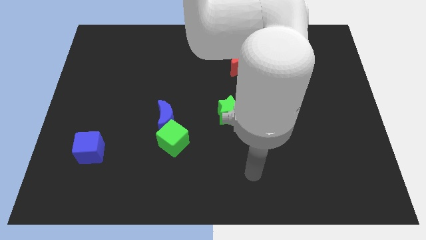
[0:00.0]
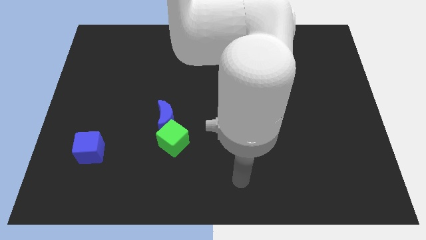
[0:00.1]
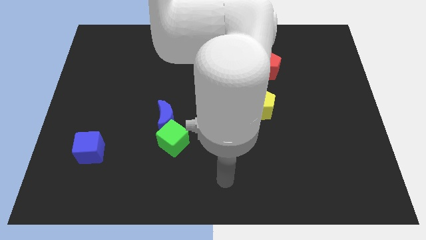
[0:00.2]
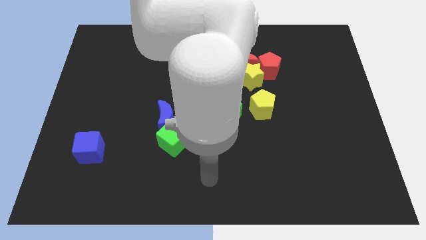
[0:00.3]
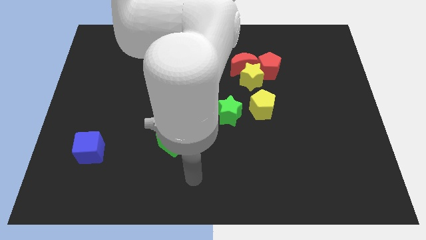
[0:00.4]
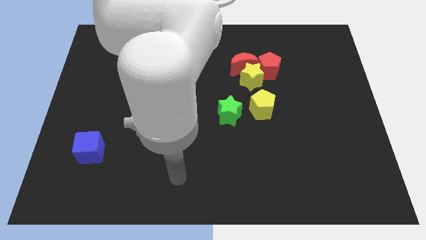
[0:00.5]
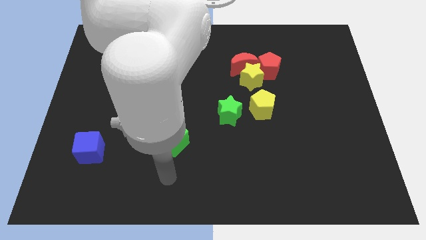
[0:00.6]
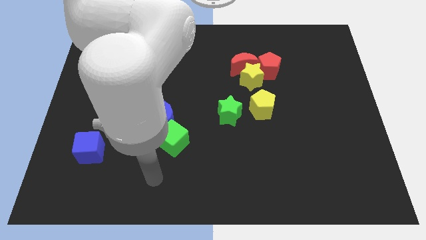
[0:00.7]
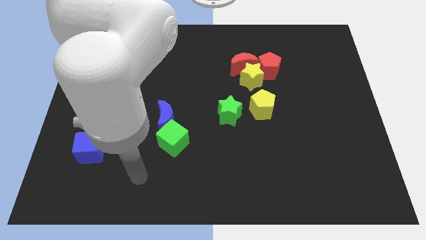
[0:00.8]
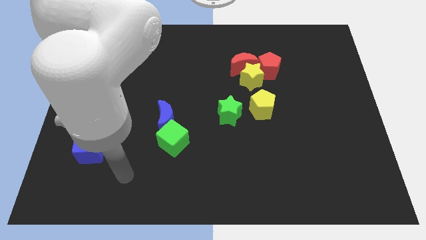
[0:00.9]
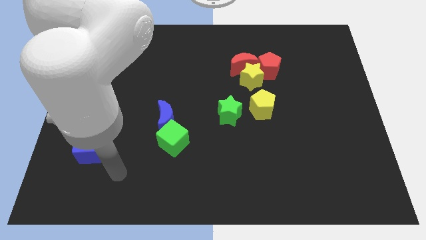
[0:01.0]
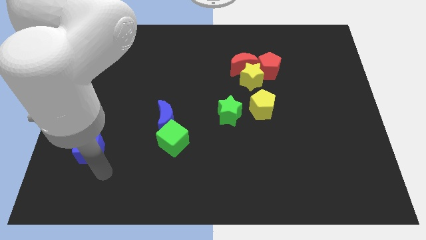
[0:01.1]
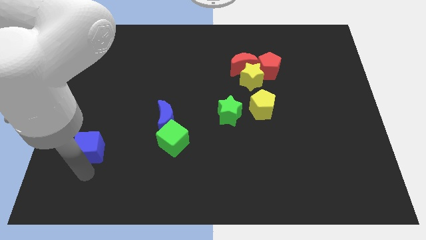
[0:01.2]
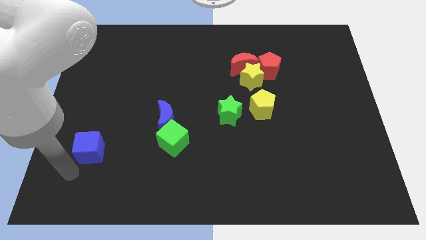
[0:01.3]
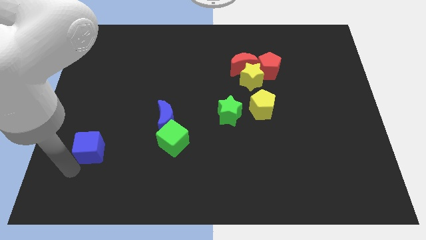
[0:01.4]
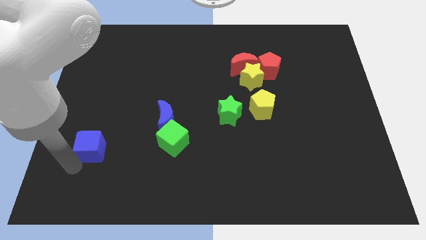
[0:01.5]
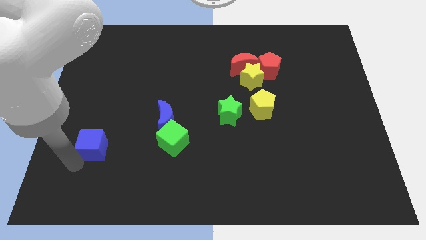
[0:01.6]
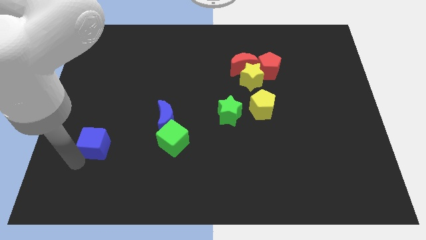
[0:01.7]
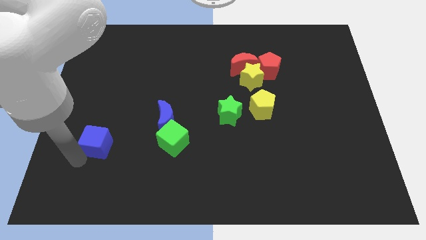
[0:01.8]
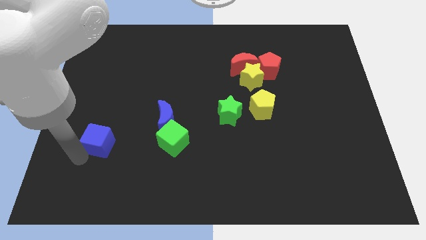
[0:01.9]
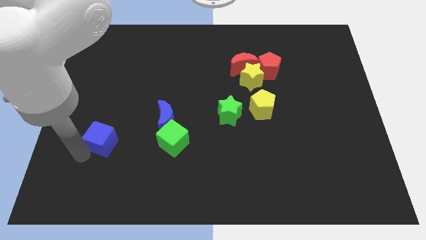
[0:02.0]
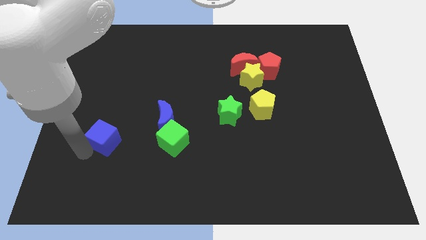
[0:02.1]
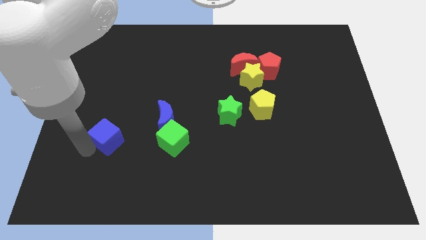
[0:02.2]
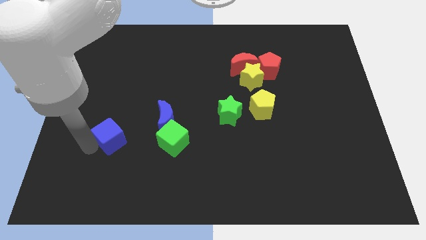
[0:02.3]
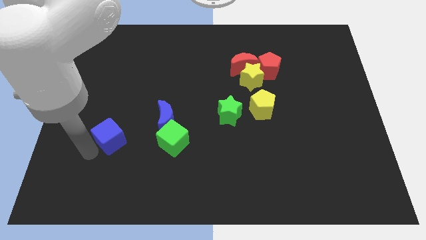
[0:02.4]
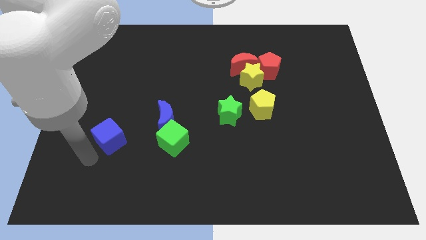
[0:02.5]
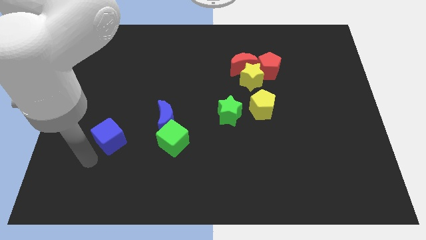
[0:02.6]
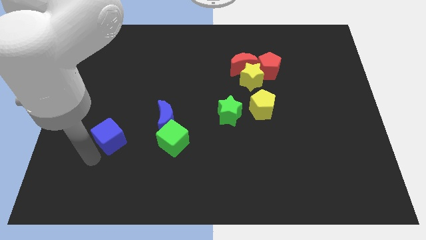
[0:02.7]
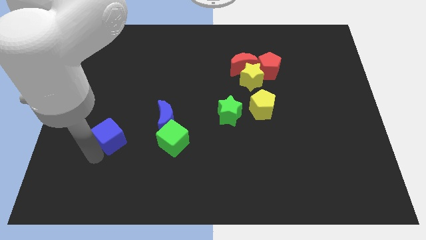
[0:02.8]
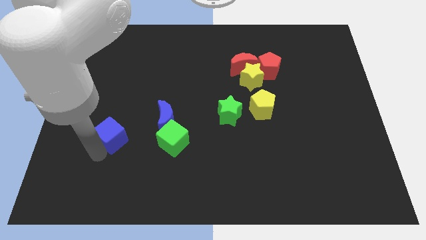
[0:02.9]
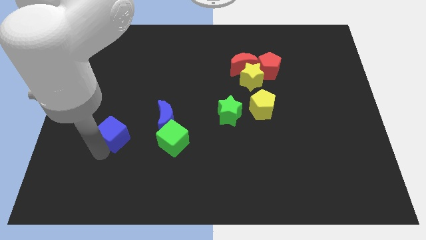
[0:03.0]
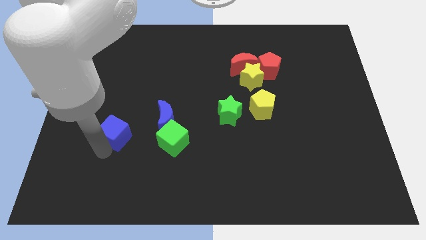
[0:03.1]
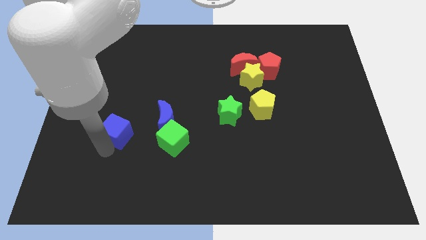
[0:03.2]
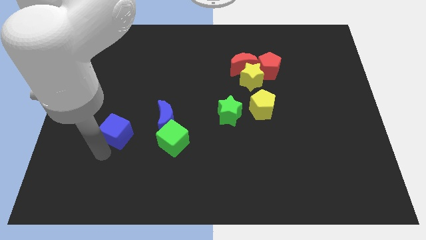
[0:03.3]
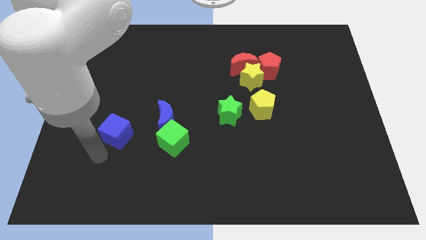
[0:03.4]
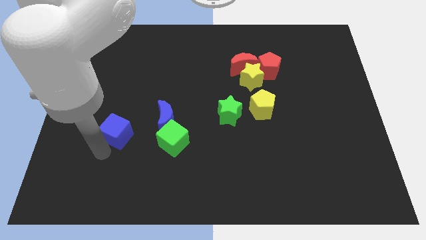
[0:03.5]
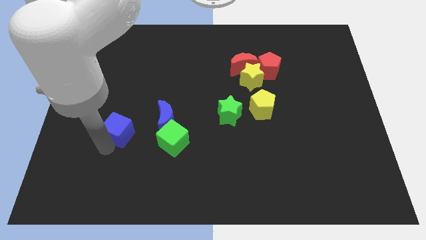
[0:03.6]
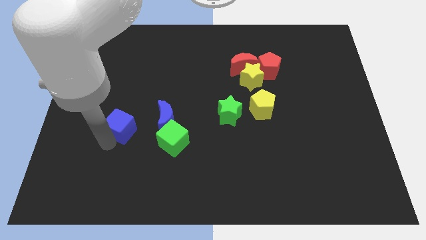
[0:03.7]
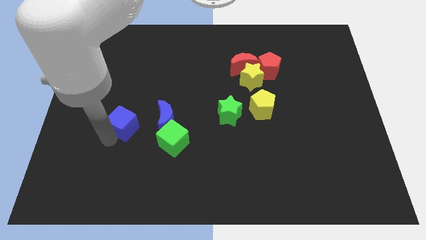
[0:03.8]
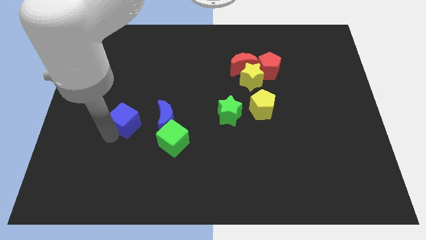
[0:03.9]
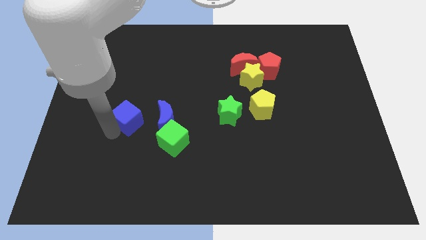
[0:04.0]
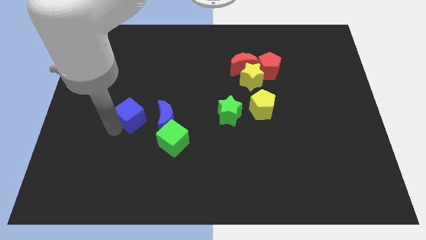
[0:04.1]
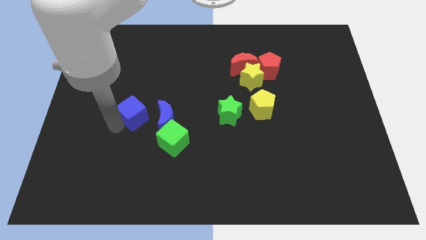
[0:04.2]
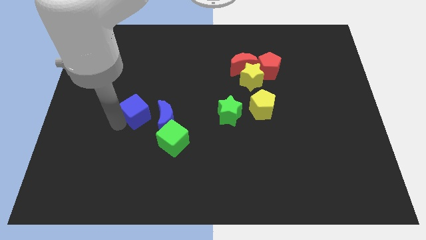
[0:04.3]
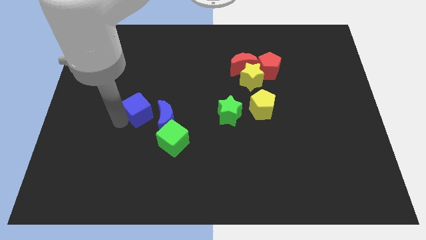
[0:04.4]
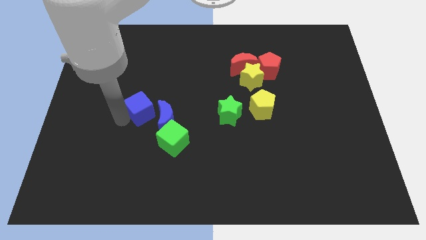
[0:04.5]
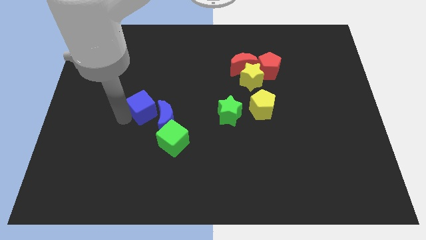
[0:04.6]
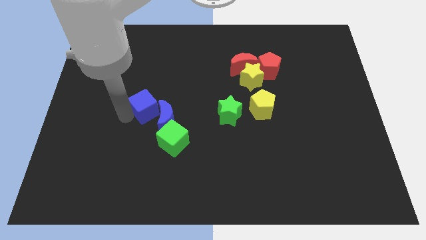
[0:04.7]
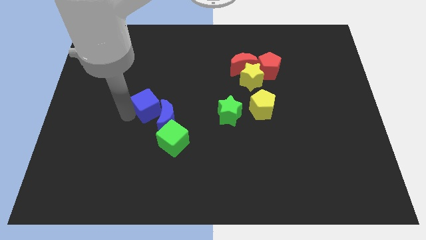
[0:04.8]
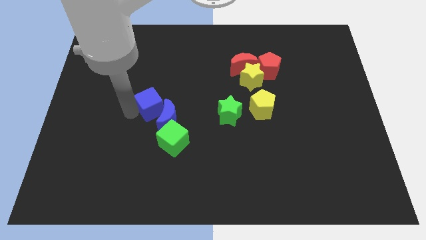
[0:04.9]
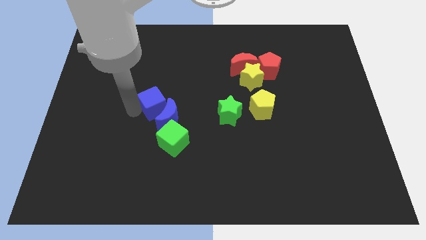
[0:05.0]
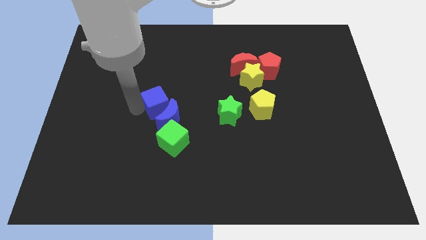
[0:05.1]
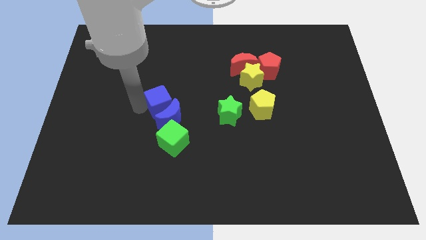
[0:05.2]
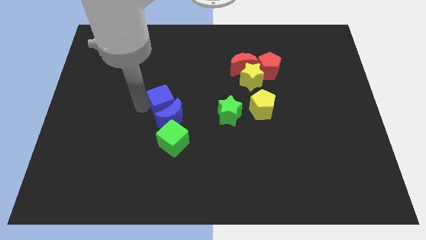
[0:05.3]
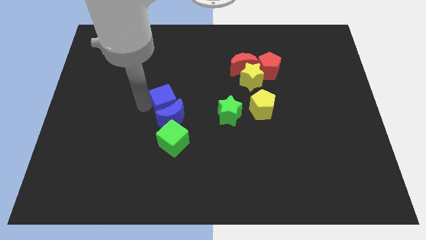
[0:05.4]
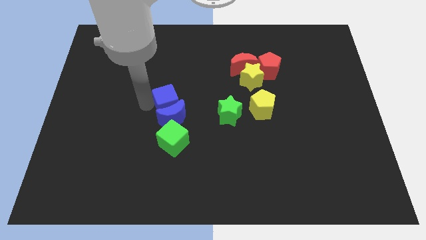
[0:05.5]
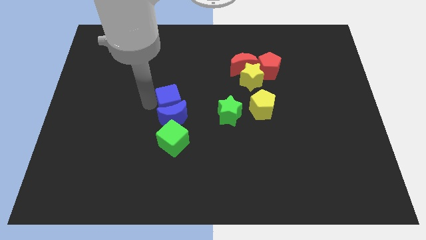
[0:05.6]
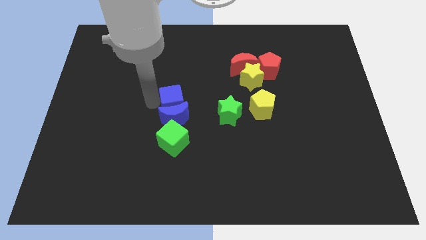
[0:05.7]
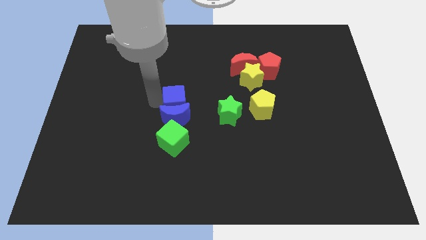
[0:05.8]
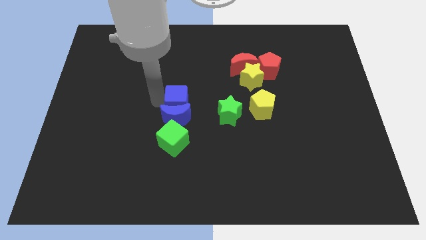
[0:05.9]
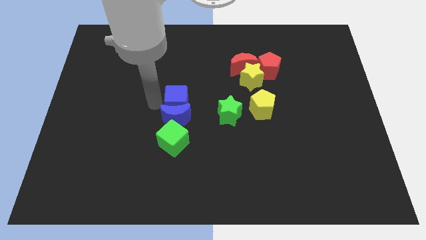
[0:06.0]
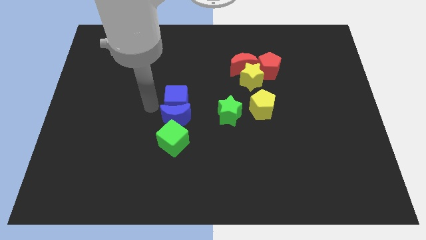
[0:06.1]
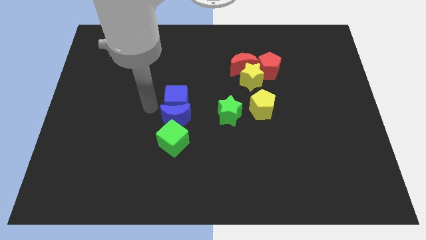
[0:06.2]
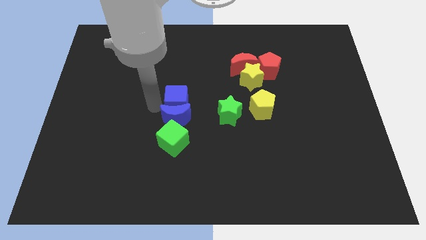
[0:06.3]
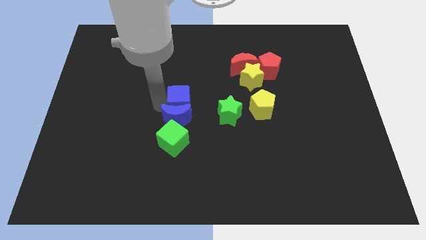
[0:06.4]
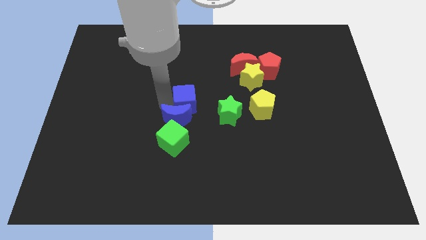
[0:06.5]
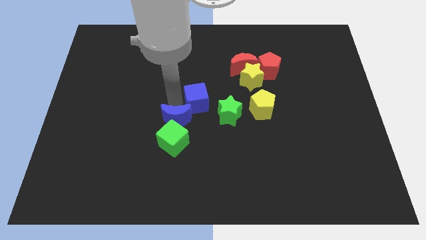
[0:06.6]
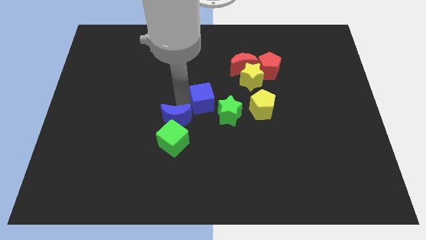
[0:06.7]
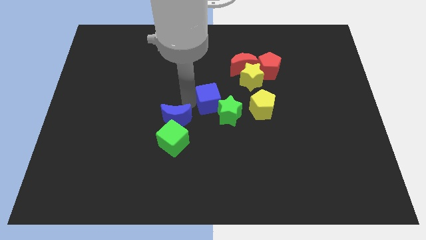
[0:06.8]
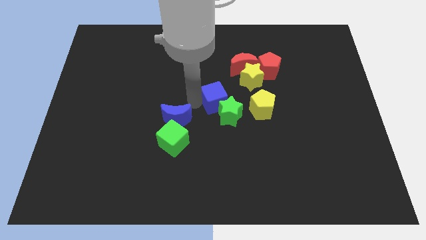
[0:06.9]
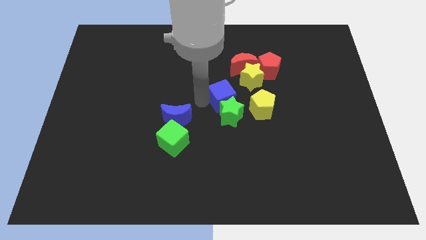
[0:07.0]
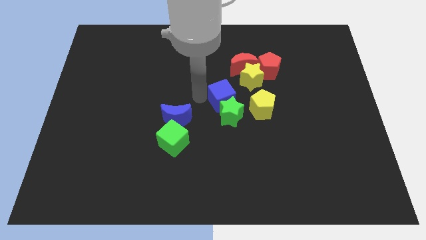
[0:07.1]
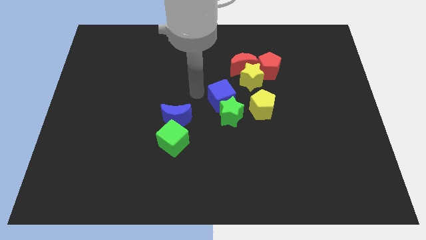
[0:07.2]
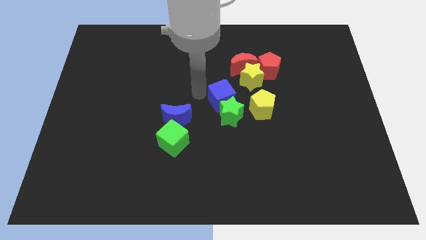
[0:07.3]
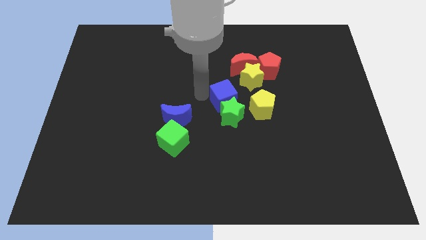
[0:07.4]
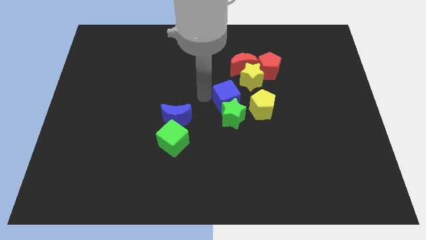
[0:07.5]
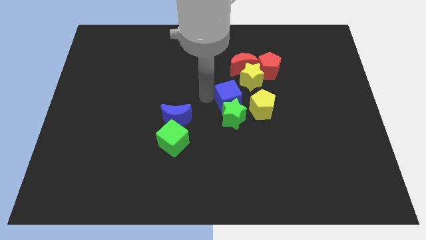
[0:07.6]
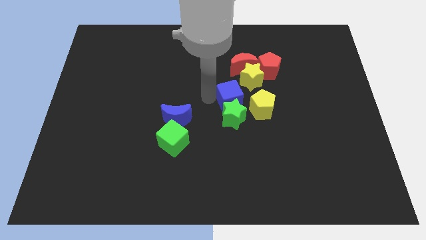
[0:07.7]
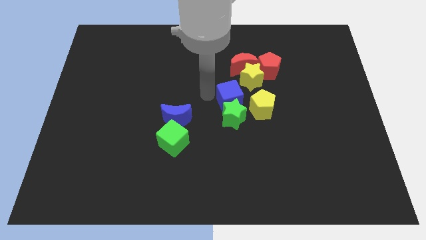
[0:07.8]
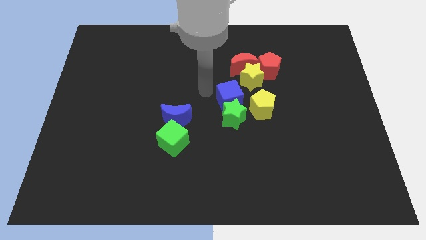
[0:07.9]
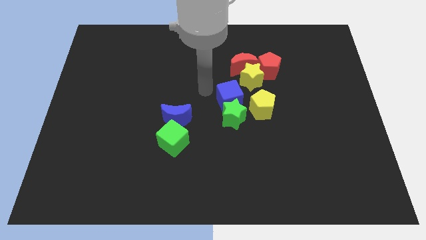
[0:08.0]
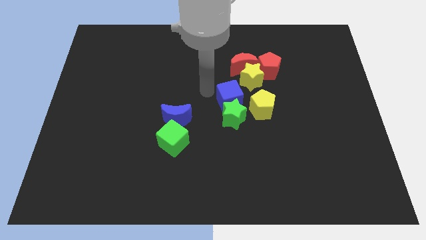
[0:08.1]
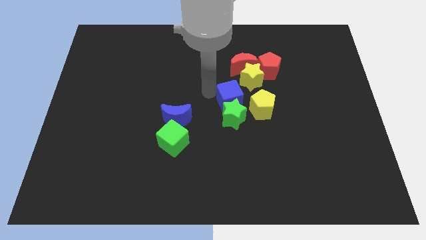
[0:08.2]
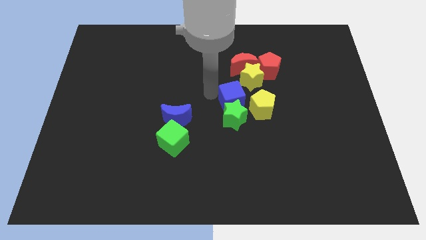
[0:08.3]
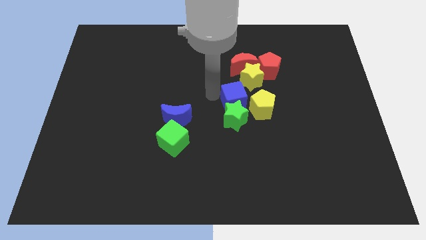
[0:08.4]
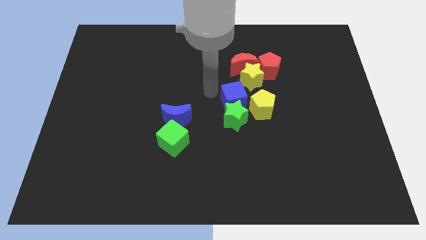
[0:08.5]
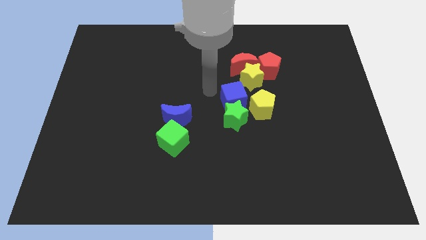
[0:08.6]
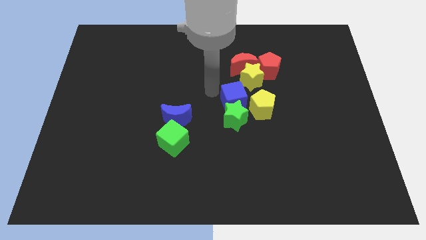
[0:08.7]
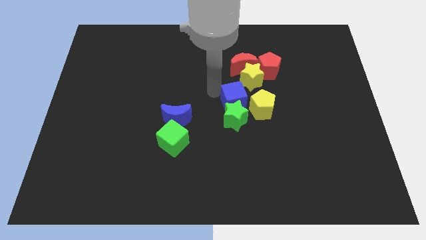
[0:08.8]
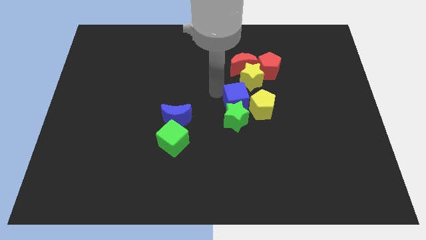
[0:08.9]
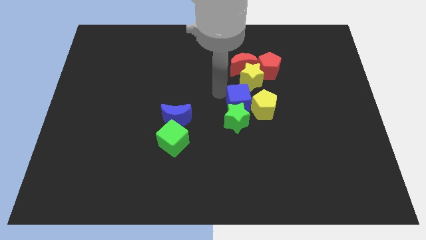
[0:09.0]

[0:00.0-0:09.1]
move the blue cube close to the yellow pentagon
